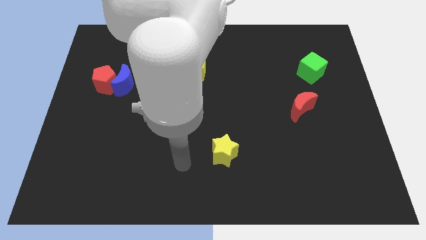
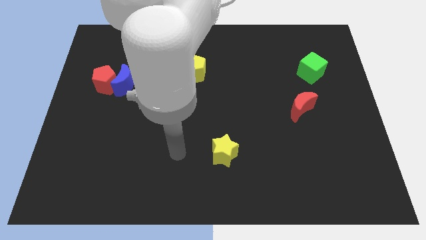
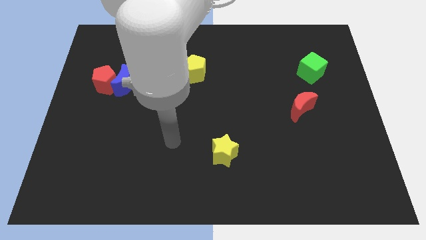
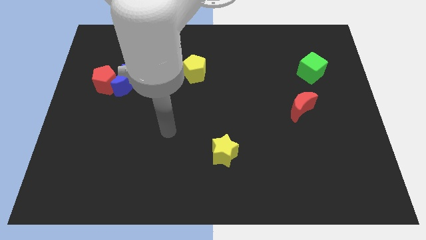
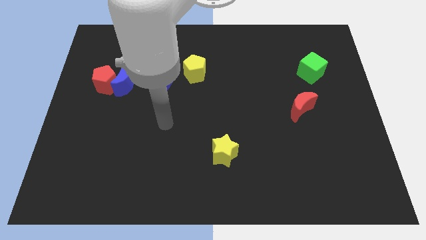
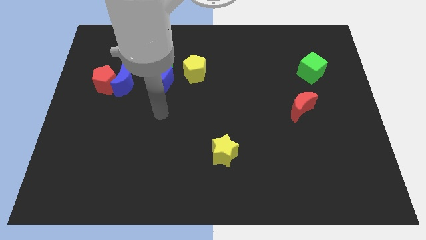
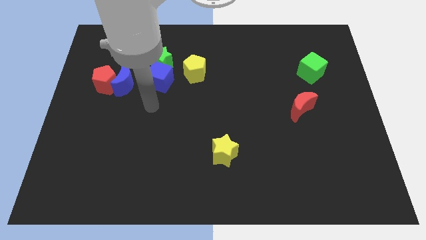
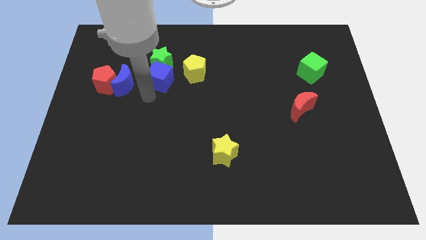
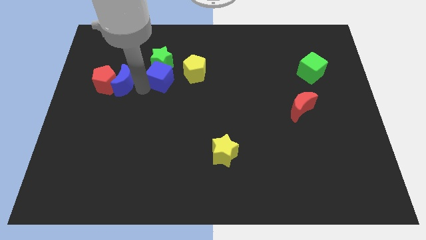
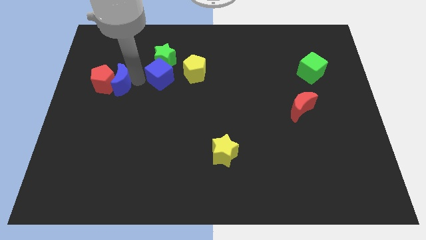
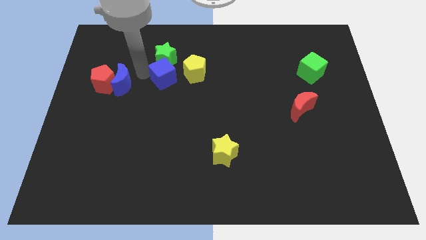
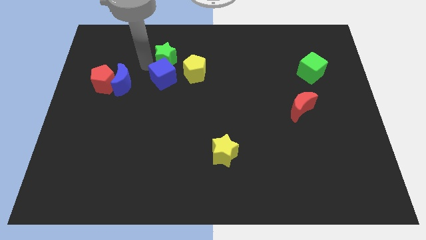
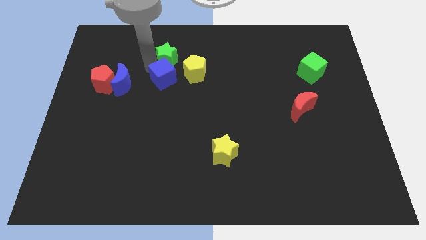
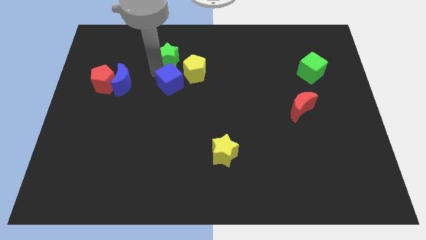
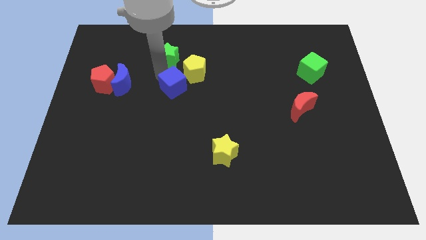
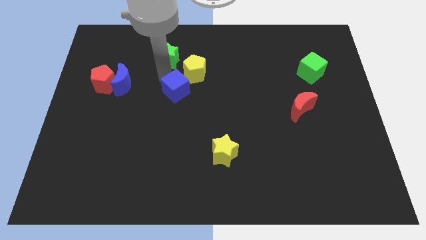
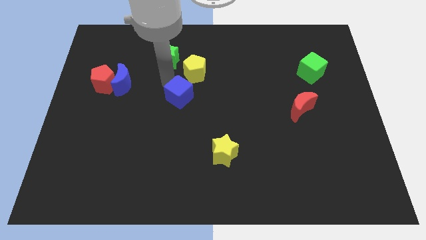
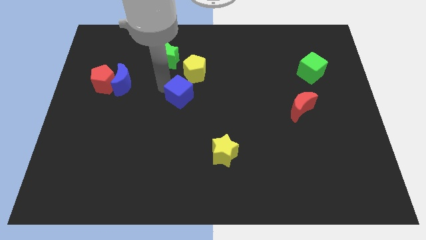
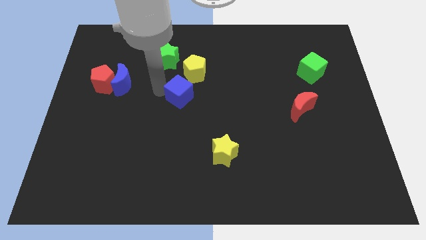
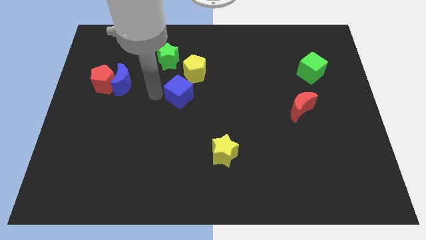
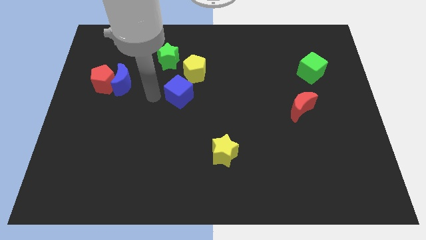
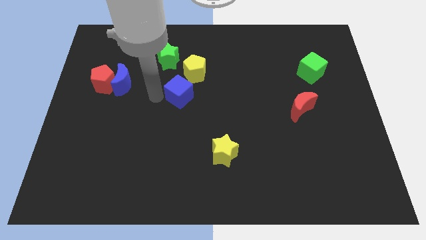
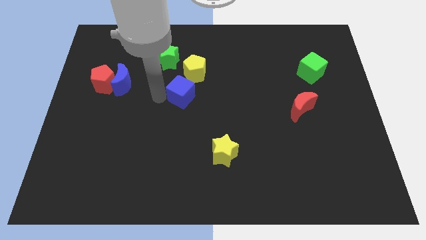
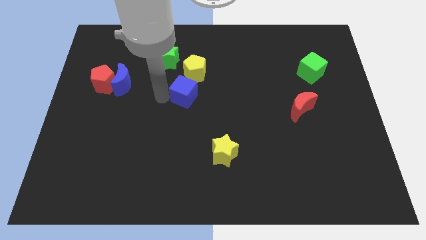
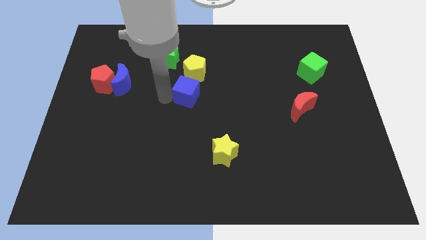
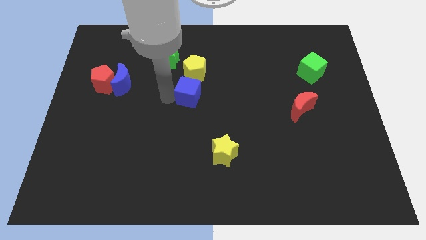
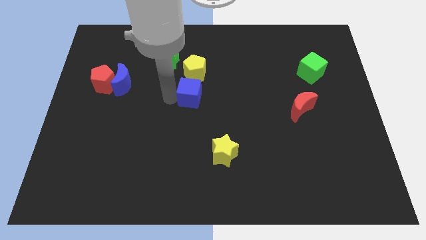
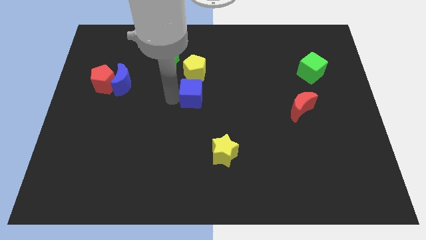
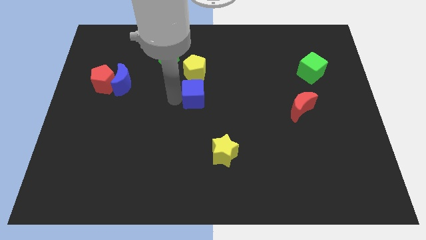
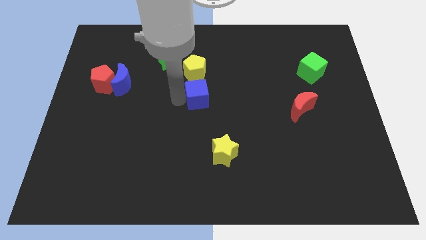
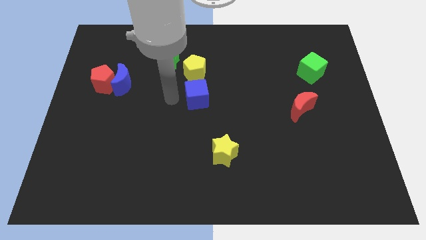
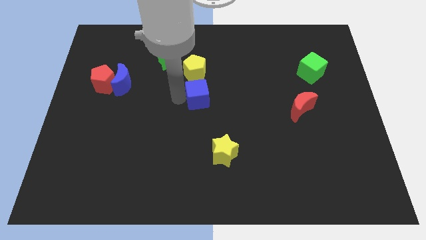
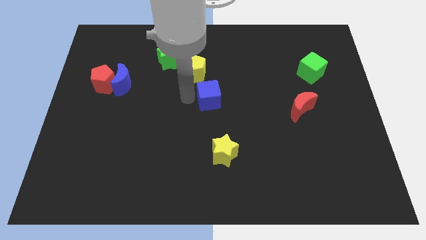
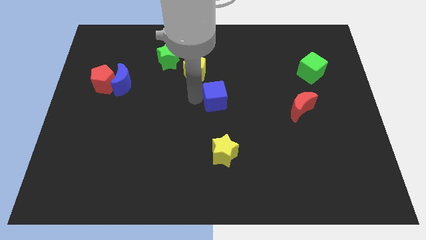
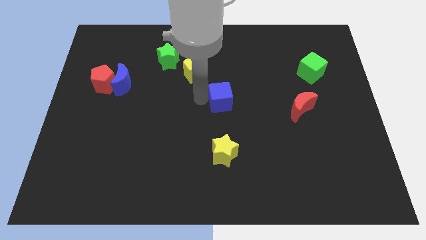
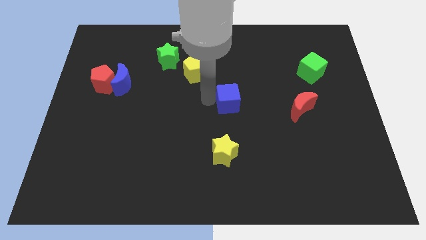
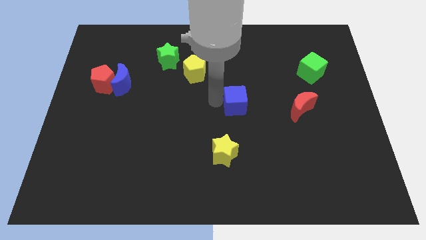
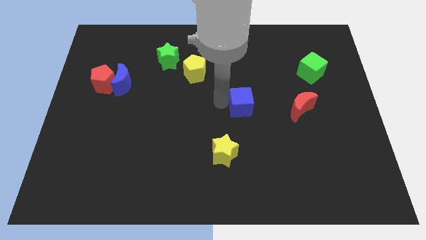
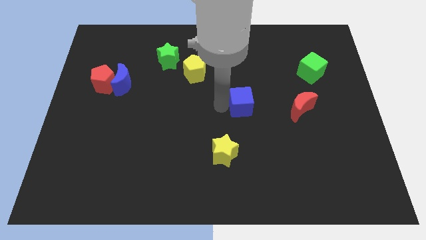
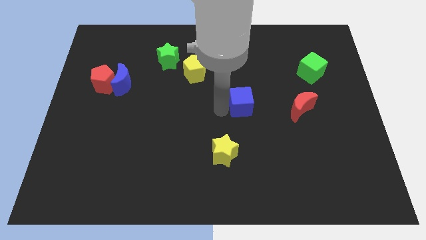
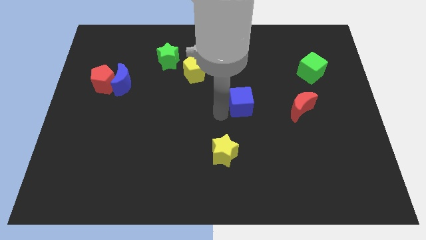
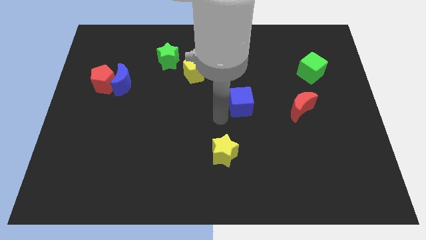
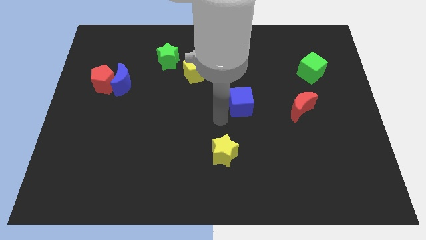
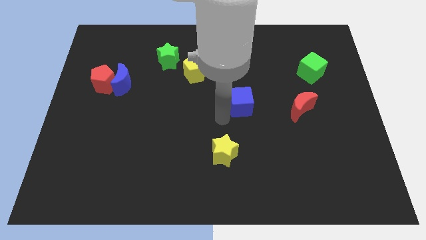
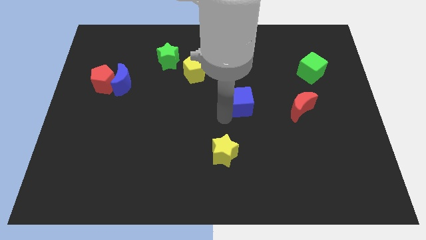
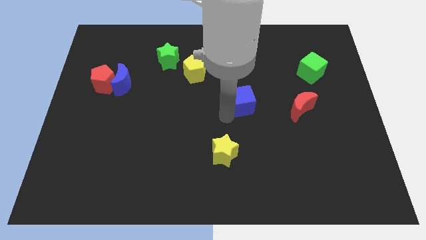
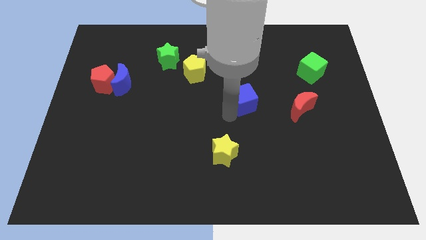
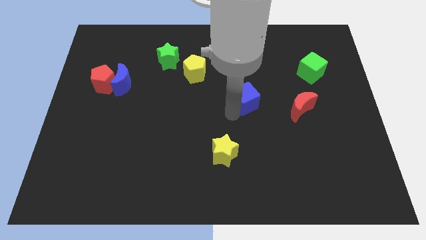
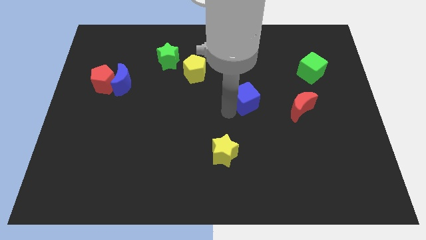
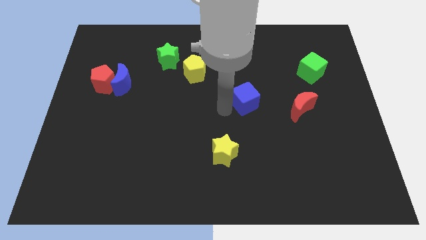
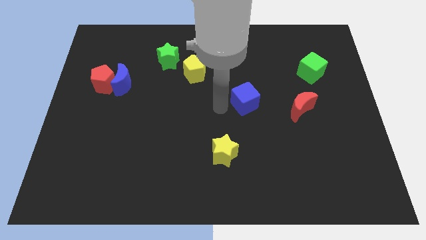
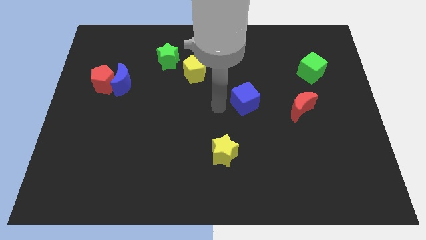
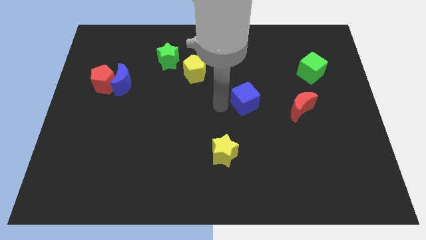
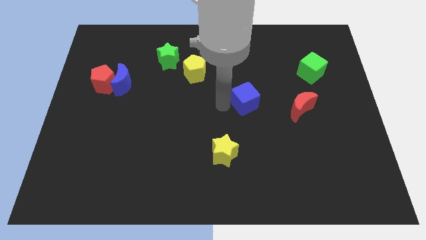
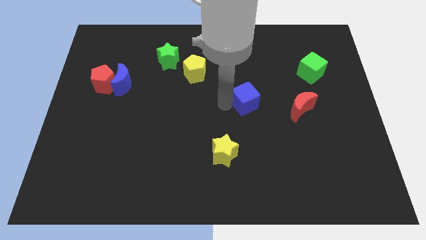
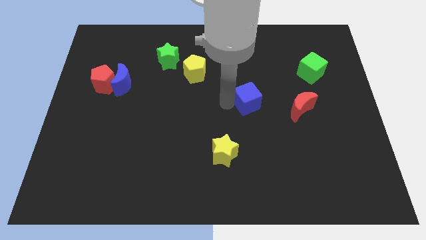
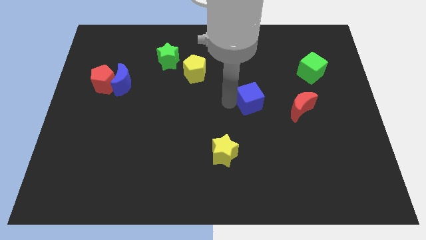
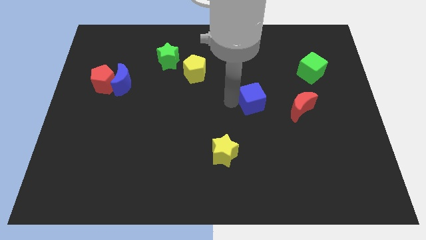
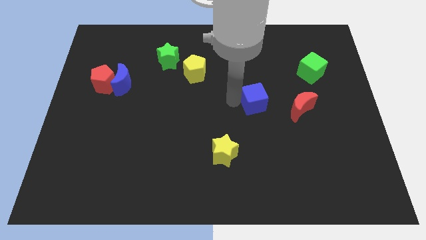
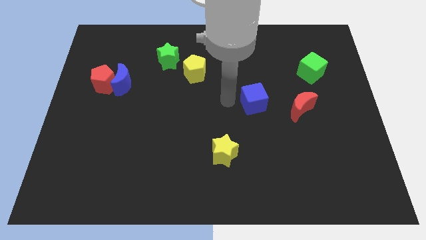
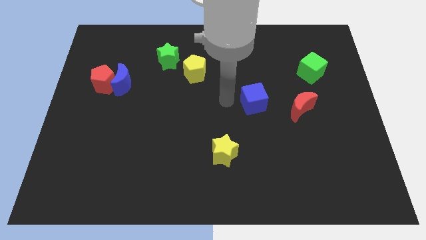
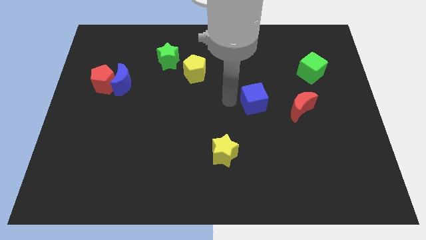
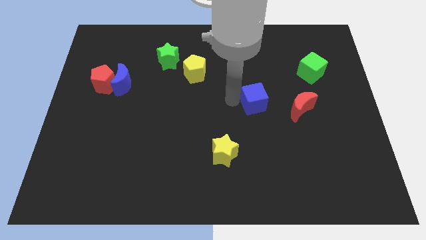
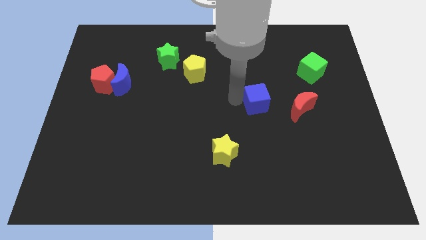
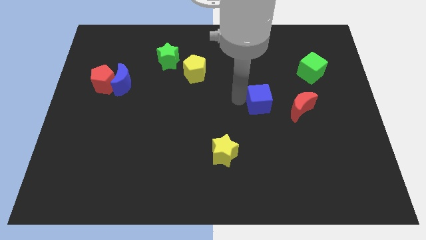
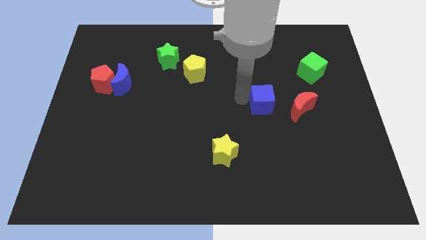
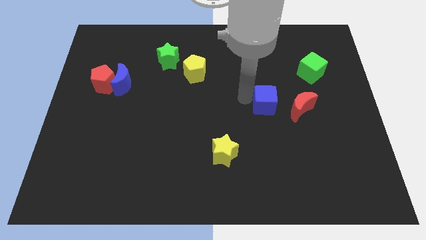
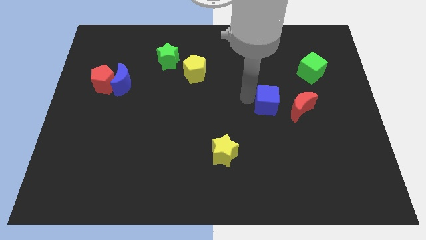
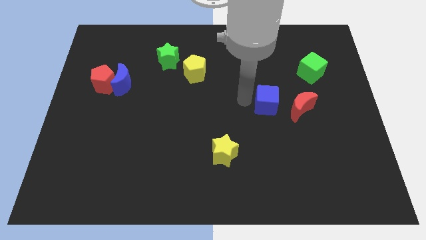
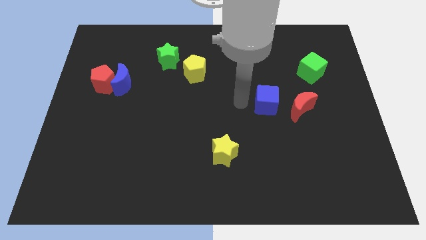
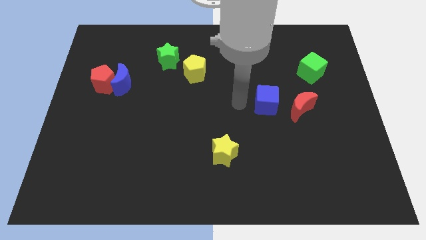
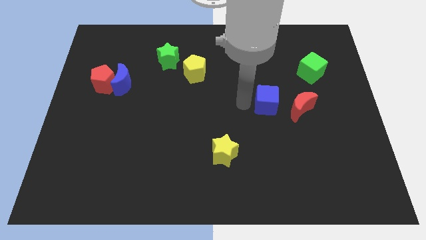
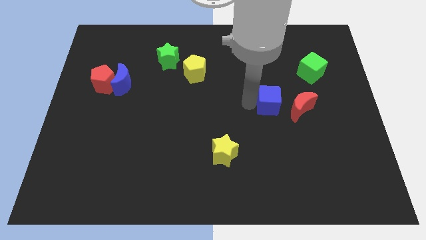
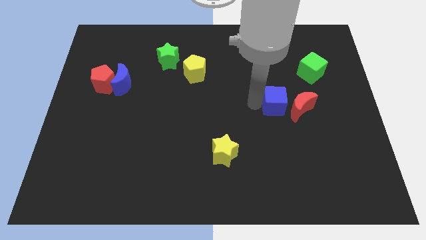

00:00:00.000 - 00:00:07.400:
move the blue cube to the red moon
